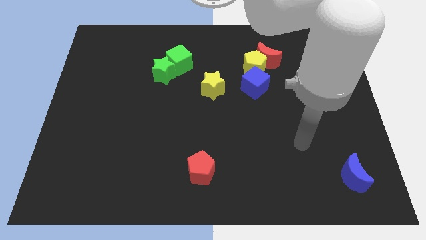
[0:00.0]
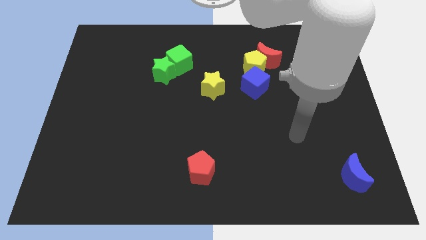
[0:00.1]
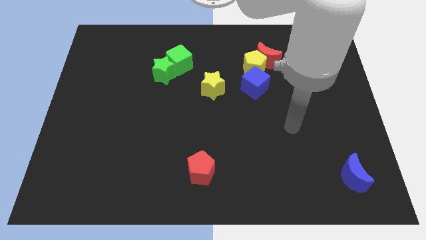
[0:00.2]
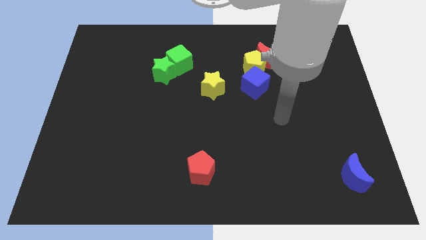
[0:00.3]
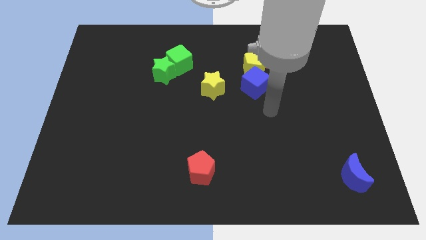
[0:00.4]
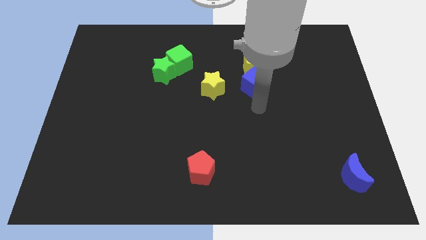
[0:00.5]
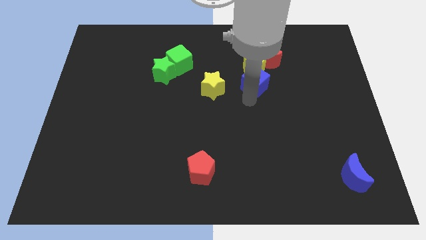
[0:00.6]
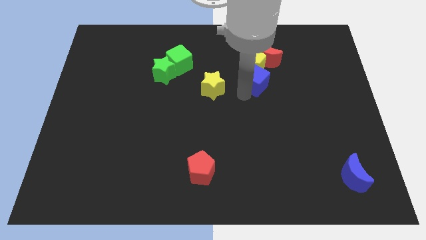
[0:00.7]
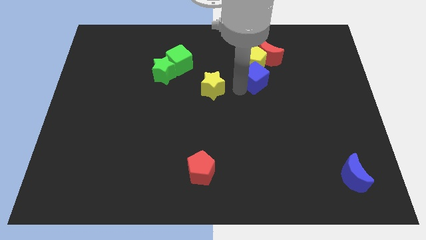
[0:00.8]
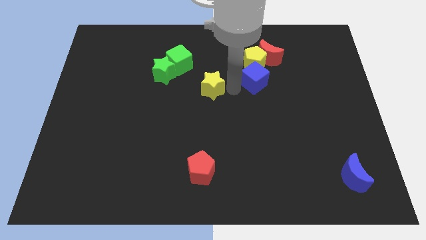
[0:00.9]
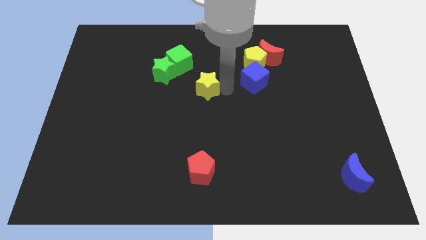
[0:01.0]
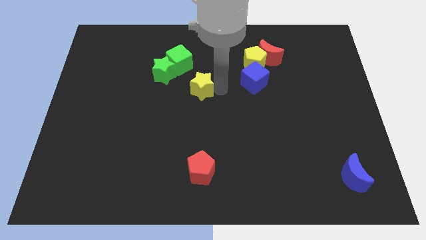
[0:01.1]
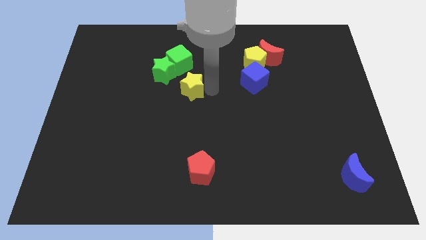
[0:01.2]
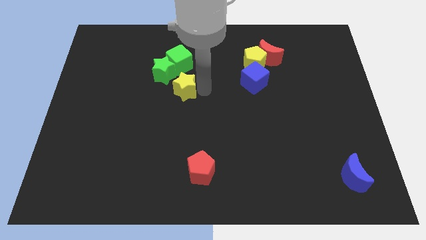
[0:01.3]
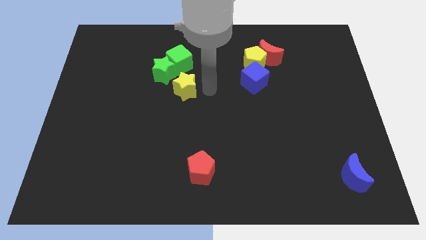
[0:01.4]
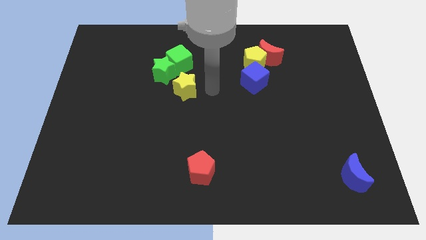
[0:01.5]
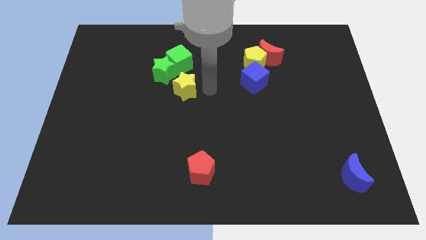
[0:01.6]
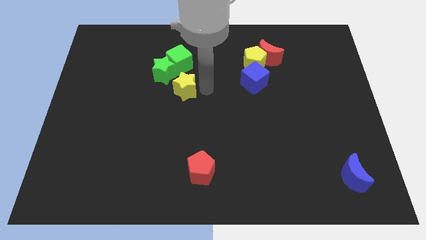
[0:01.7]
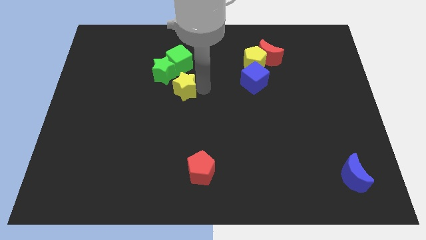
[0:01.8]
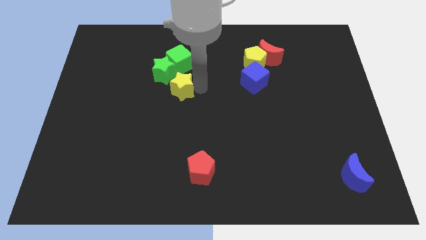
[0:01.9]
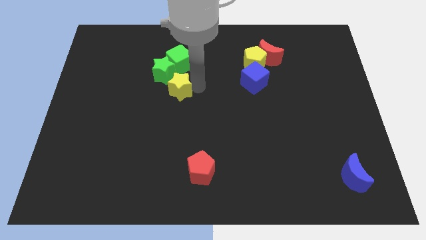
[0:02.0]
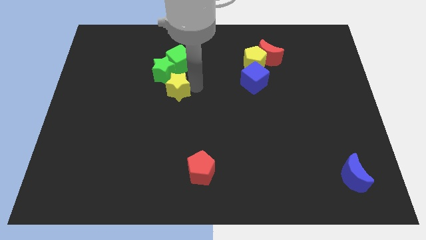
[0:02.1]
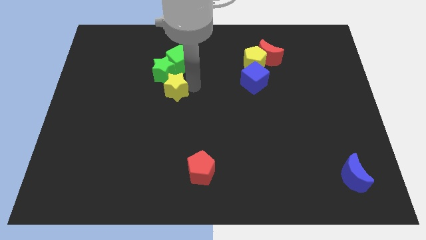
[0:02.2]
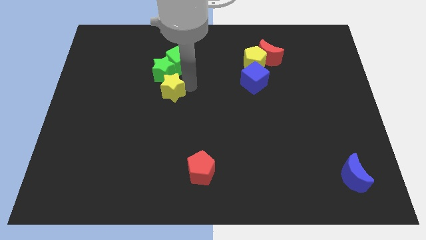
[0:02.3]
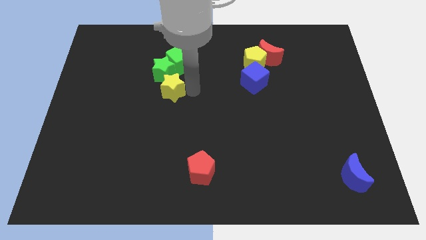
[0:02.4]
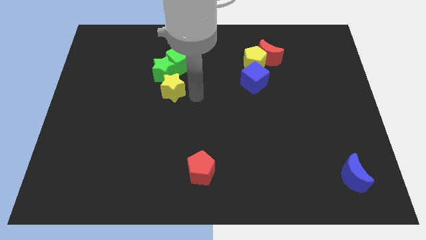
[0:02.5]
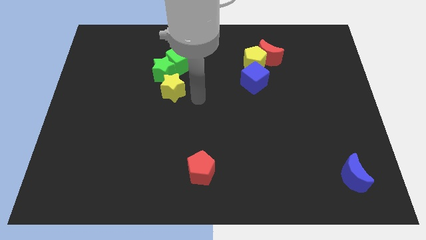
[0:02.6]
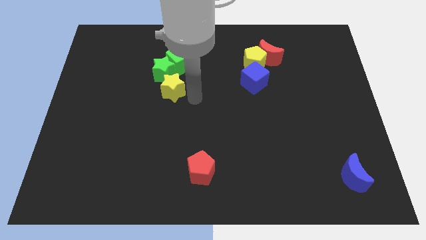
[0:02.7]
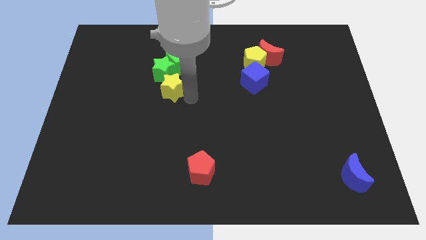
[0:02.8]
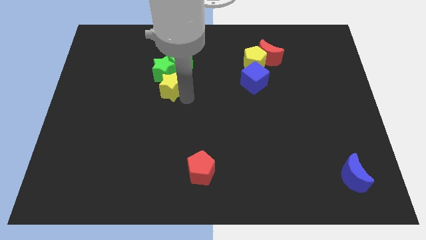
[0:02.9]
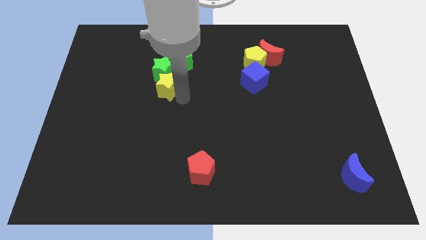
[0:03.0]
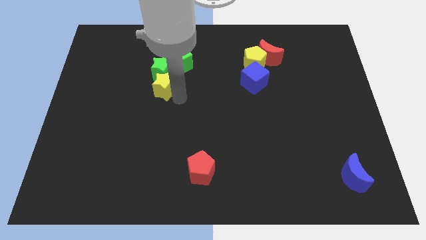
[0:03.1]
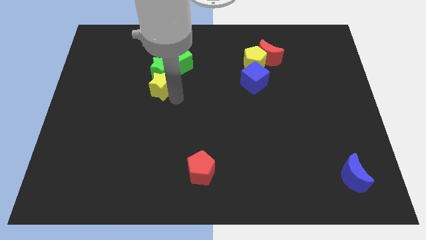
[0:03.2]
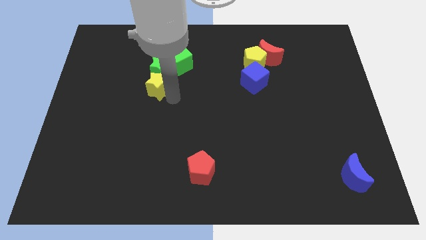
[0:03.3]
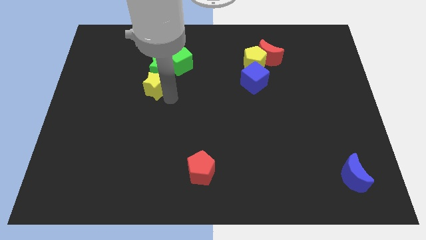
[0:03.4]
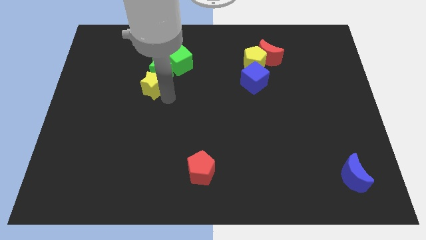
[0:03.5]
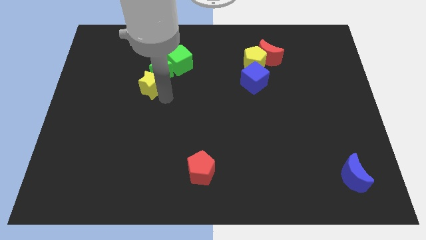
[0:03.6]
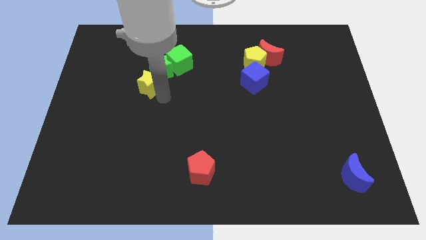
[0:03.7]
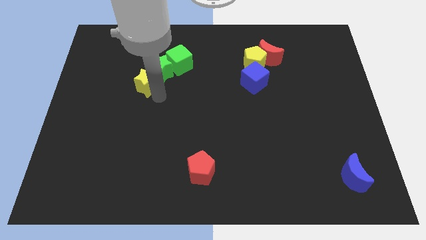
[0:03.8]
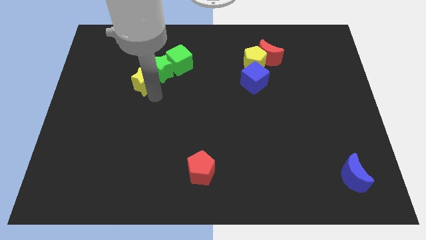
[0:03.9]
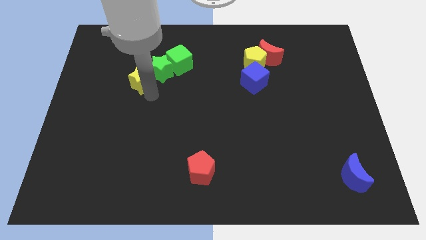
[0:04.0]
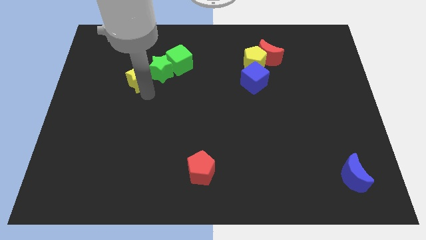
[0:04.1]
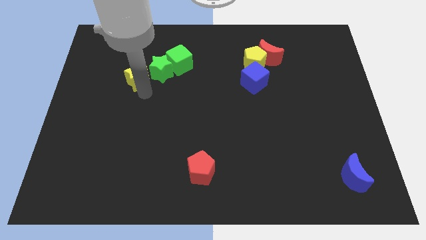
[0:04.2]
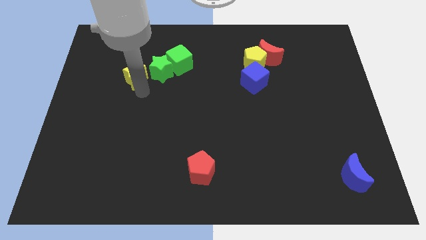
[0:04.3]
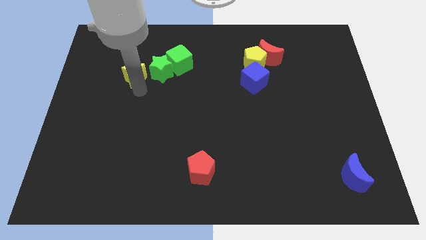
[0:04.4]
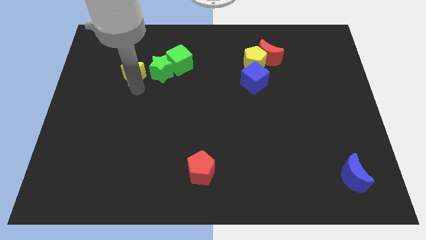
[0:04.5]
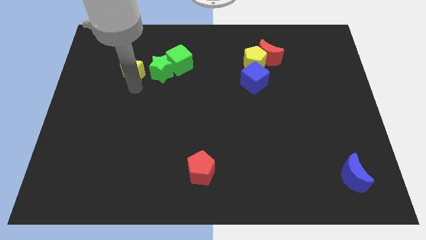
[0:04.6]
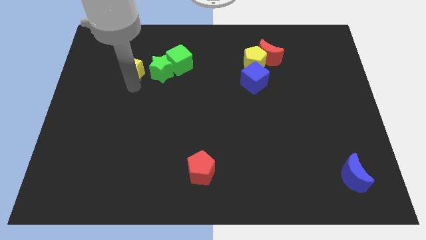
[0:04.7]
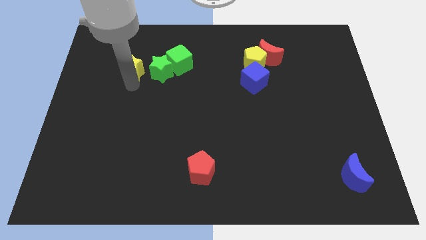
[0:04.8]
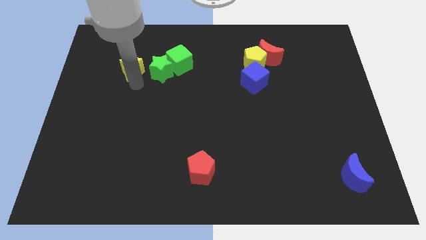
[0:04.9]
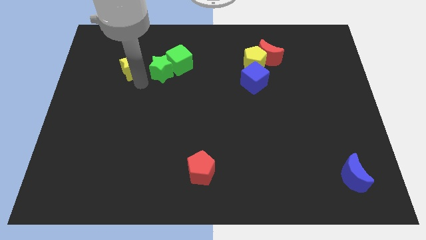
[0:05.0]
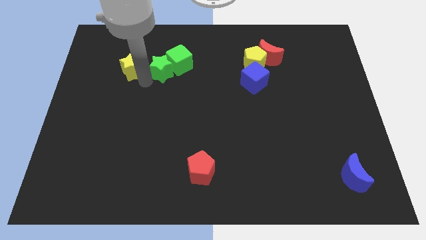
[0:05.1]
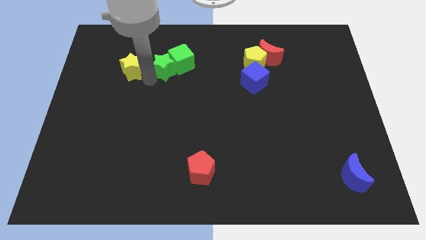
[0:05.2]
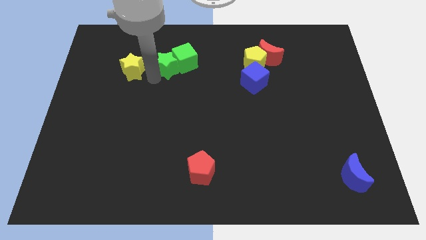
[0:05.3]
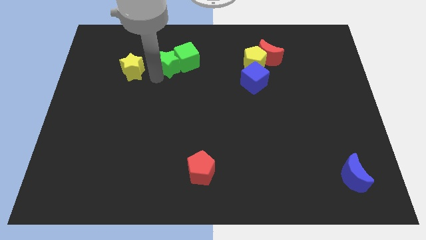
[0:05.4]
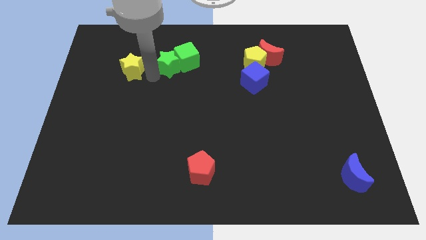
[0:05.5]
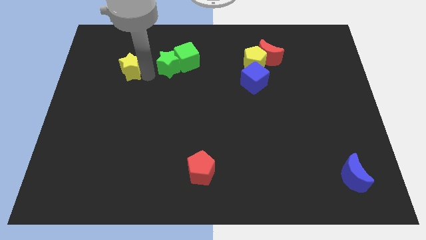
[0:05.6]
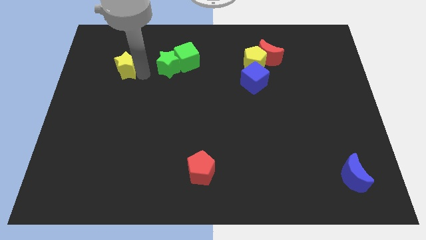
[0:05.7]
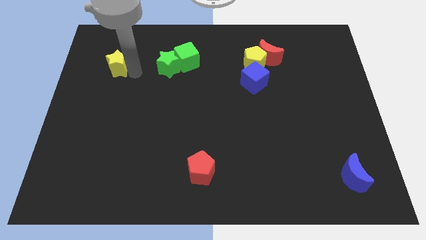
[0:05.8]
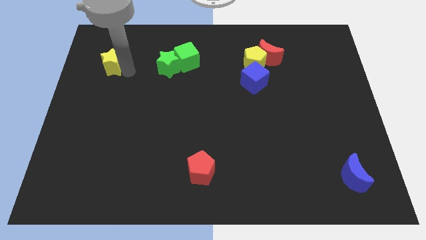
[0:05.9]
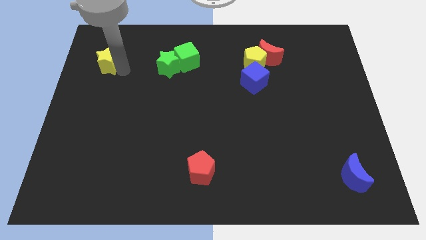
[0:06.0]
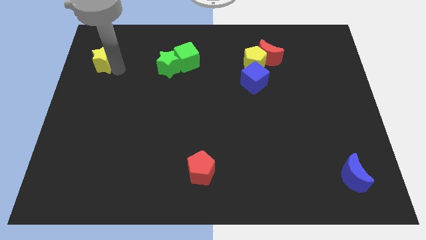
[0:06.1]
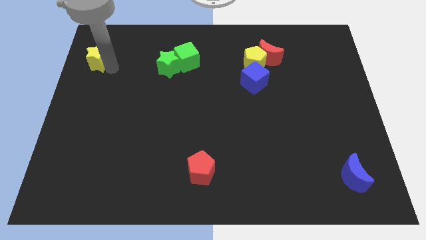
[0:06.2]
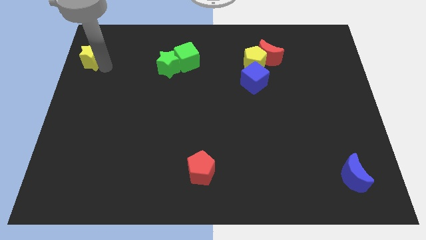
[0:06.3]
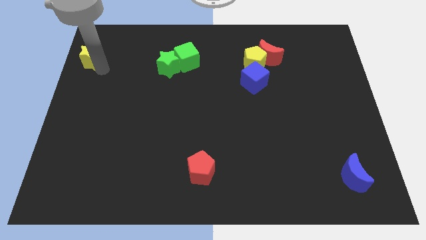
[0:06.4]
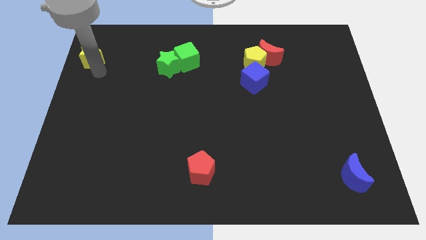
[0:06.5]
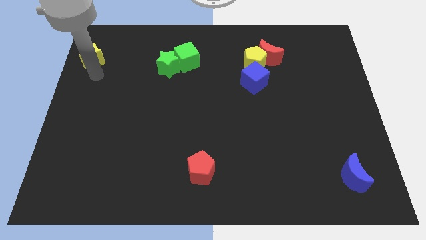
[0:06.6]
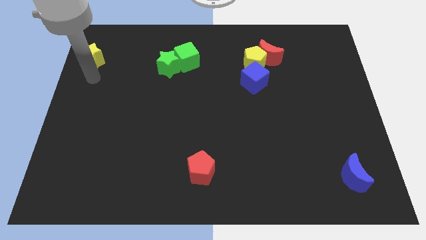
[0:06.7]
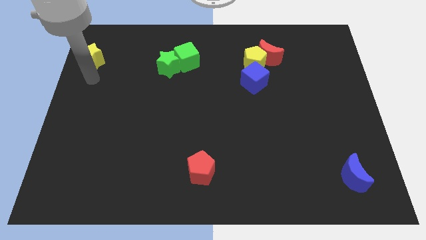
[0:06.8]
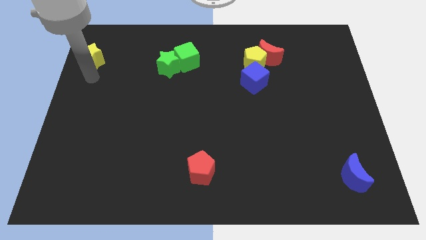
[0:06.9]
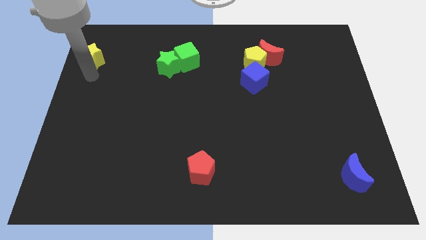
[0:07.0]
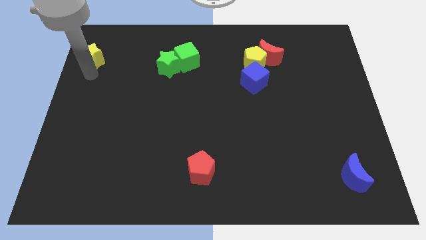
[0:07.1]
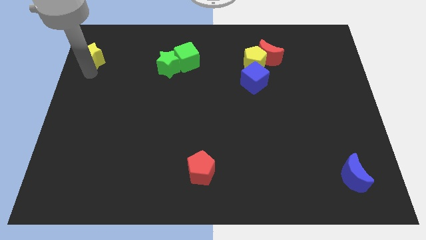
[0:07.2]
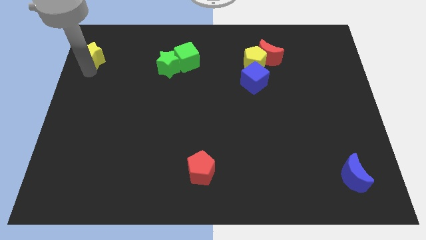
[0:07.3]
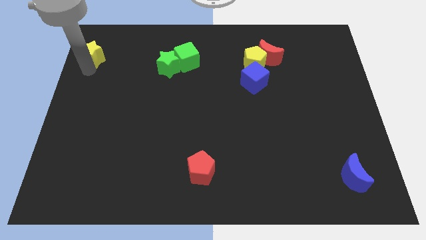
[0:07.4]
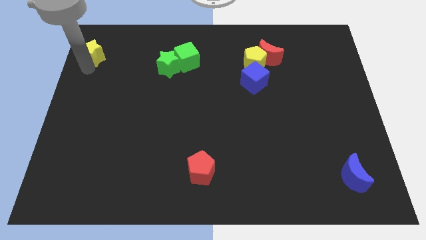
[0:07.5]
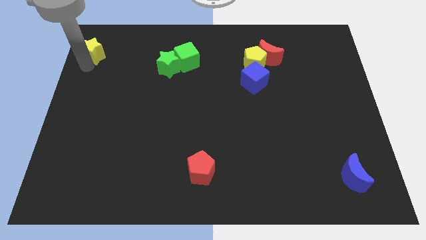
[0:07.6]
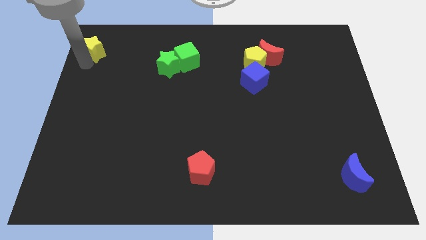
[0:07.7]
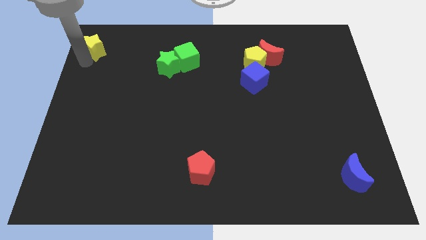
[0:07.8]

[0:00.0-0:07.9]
push the yellow star to the top left
